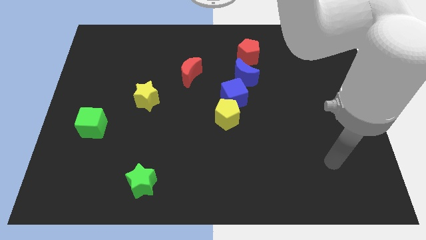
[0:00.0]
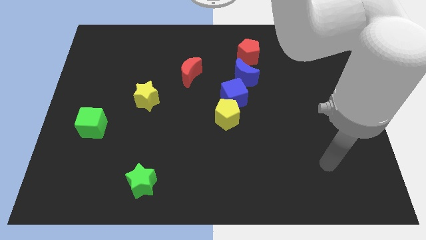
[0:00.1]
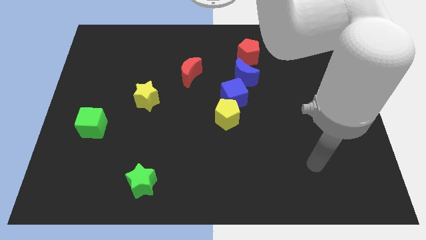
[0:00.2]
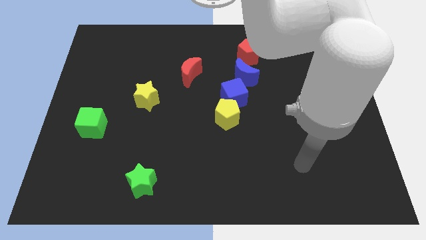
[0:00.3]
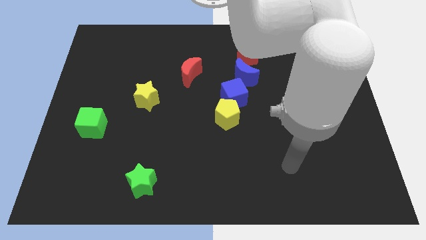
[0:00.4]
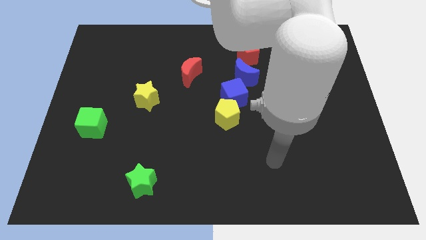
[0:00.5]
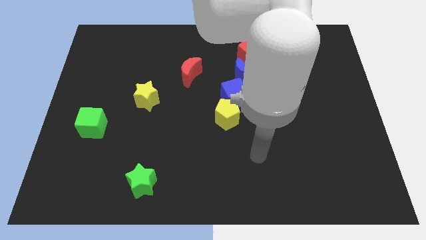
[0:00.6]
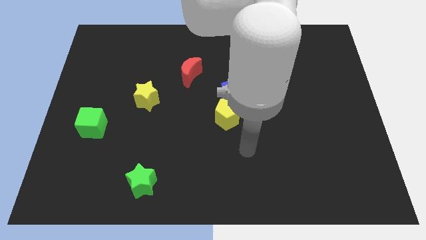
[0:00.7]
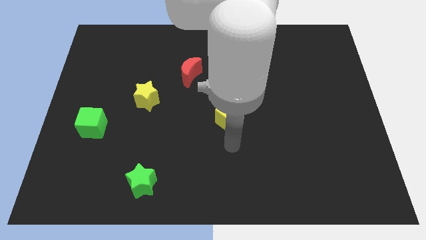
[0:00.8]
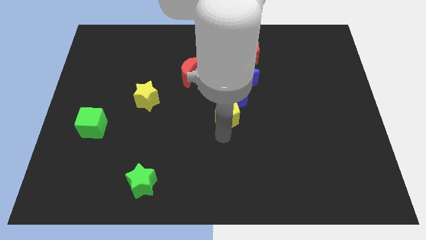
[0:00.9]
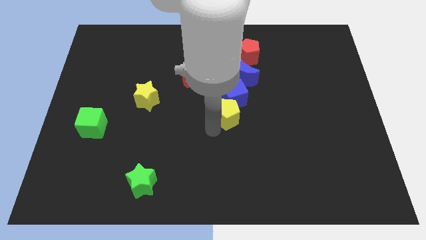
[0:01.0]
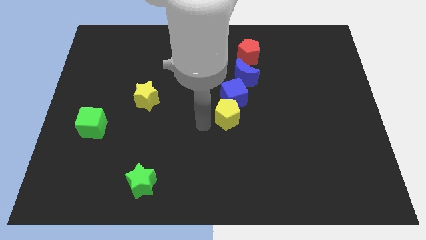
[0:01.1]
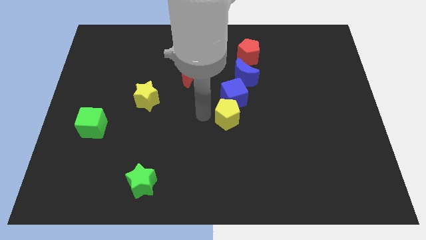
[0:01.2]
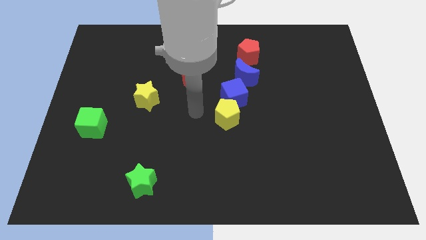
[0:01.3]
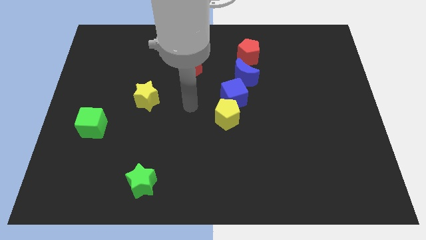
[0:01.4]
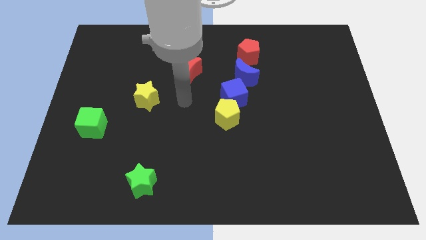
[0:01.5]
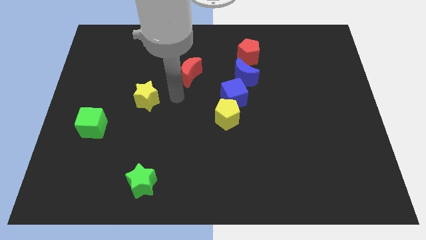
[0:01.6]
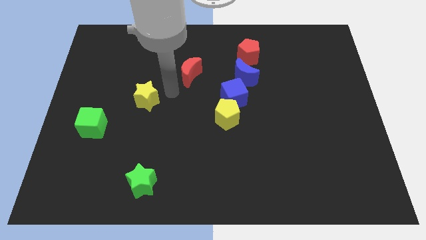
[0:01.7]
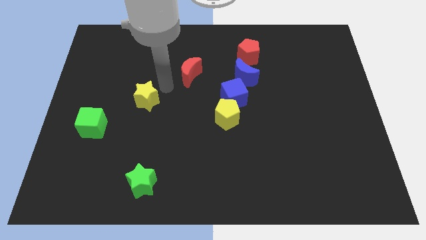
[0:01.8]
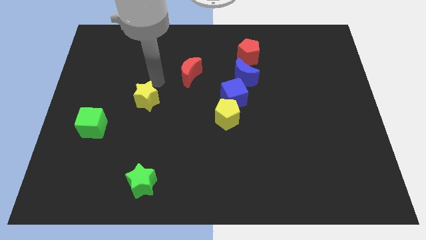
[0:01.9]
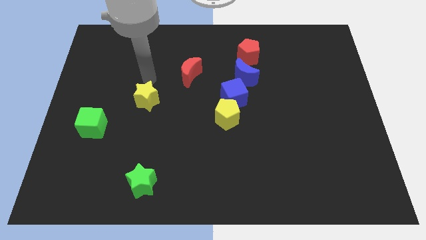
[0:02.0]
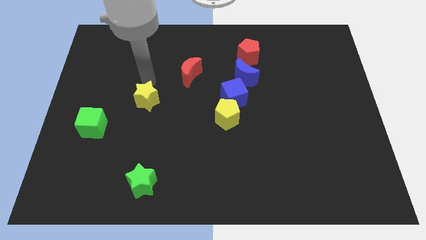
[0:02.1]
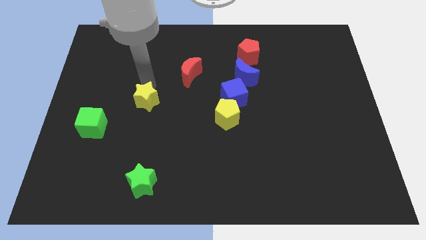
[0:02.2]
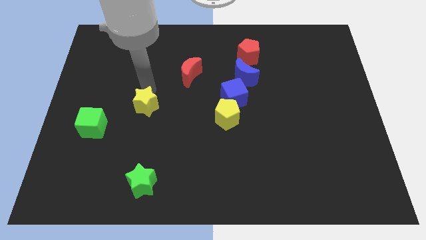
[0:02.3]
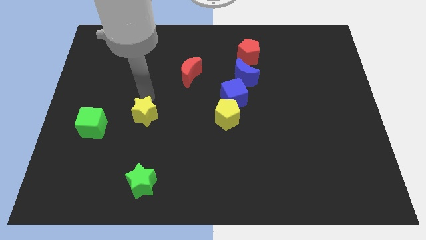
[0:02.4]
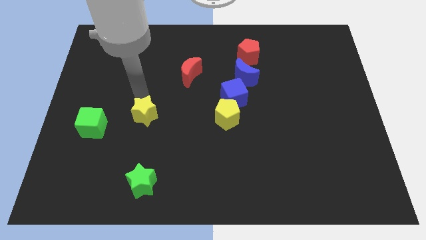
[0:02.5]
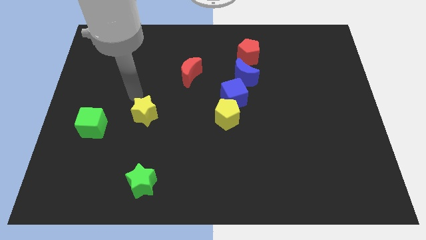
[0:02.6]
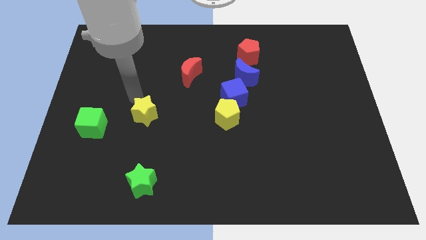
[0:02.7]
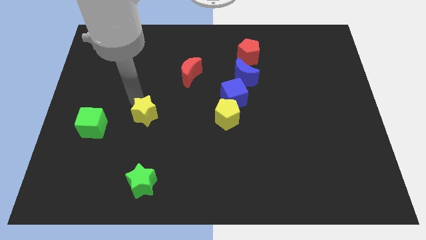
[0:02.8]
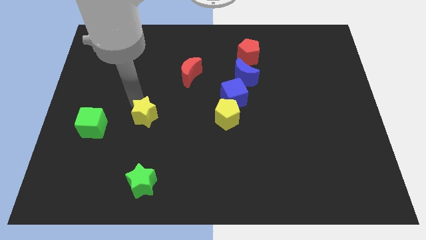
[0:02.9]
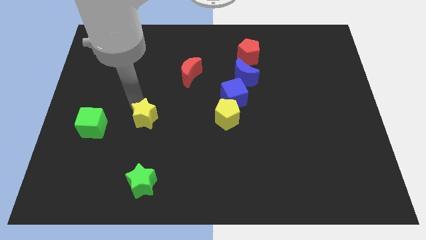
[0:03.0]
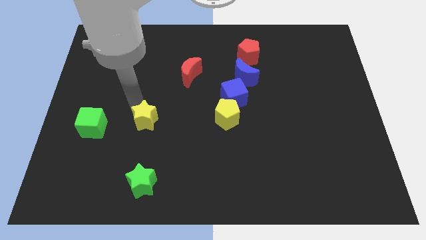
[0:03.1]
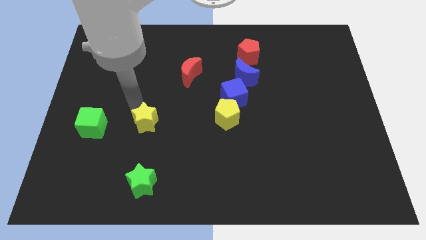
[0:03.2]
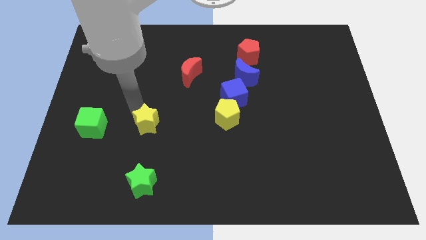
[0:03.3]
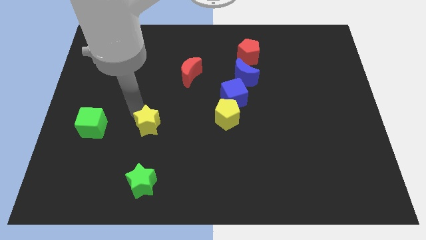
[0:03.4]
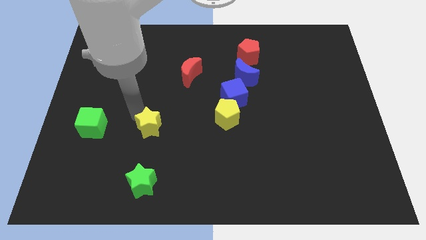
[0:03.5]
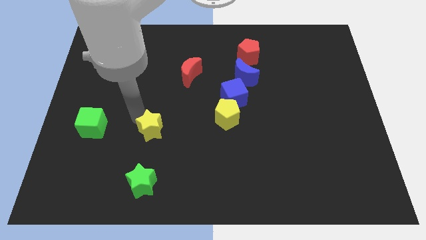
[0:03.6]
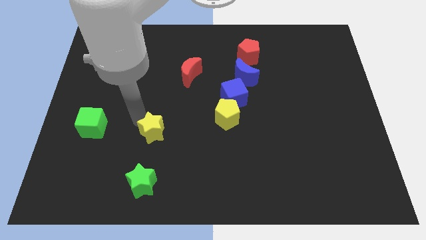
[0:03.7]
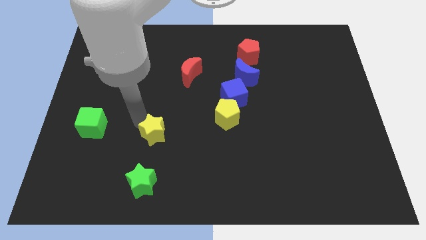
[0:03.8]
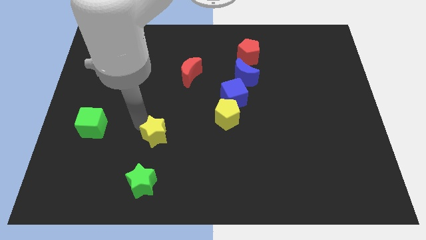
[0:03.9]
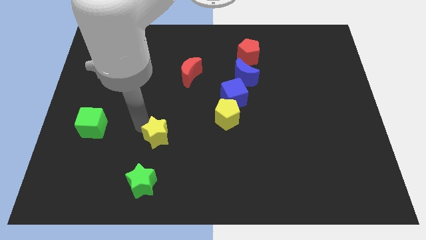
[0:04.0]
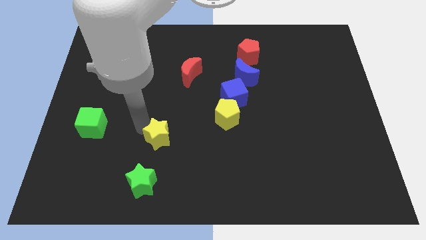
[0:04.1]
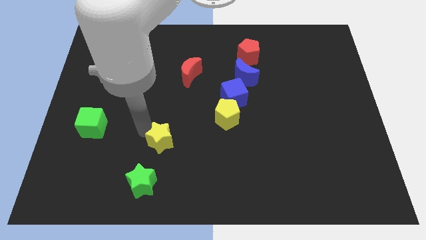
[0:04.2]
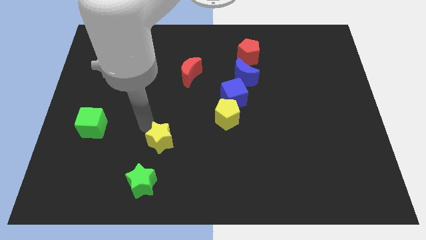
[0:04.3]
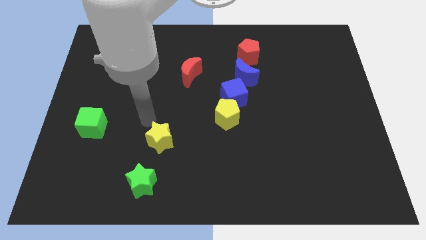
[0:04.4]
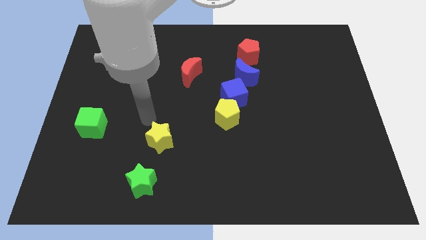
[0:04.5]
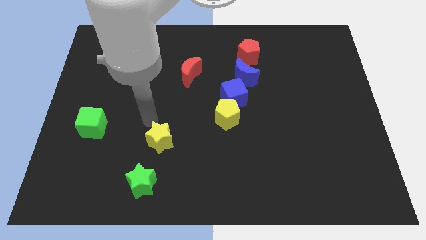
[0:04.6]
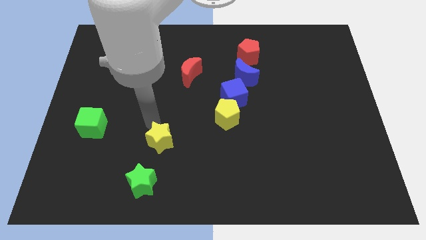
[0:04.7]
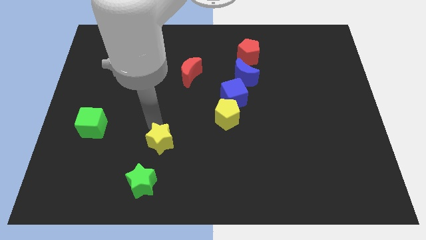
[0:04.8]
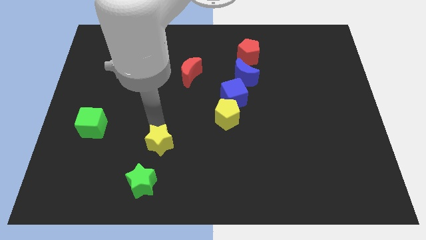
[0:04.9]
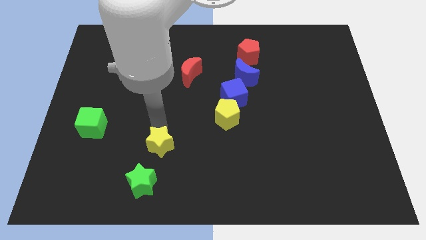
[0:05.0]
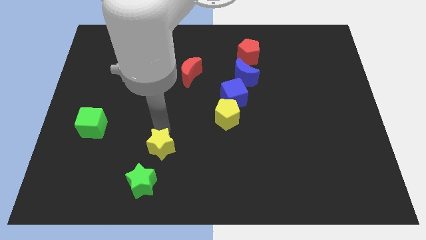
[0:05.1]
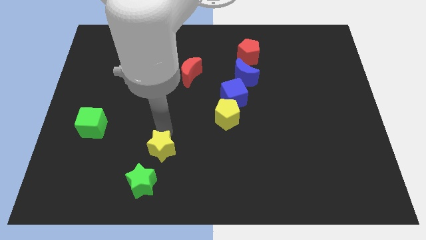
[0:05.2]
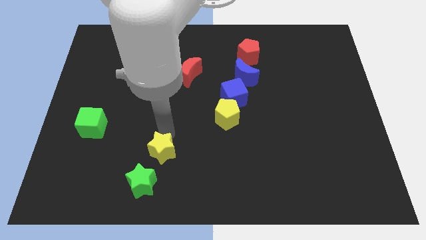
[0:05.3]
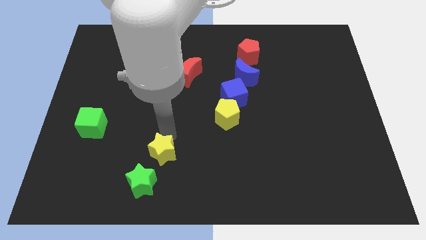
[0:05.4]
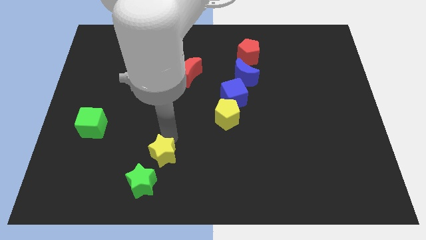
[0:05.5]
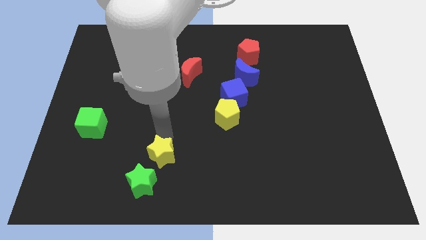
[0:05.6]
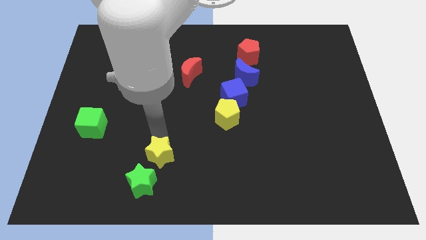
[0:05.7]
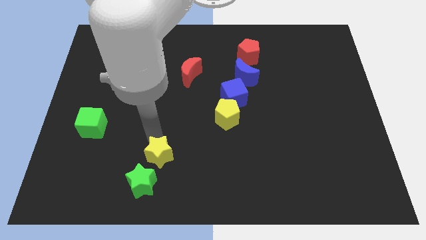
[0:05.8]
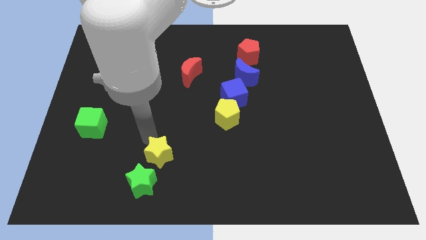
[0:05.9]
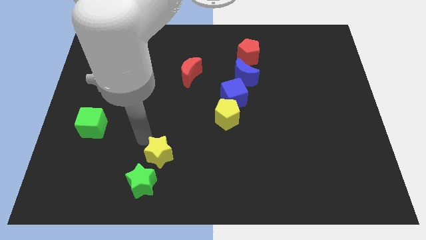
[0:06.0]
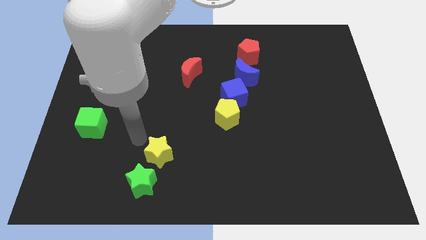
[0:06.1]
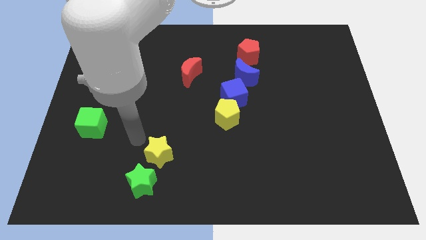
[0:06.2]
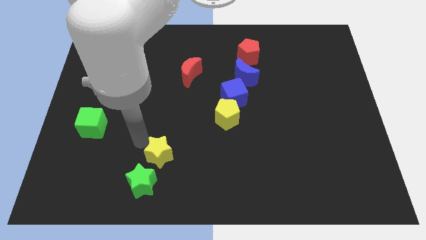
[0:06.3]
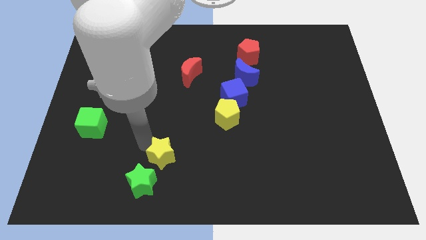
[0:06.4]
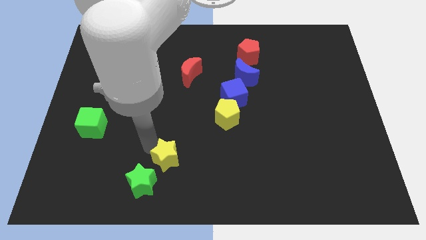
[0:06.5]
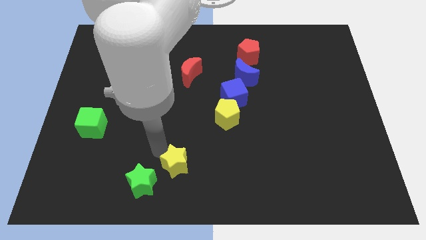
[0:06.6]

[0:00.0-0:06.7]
push the yellow star to the bottom
